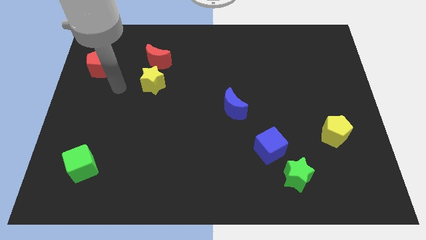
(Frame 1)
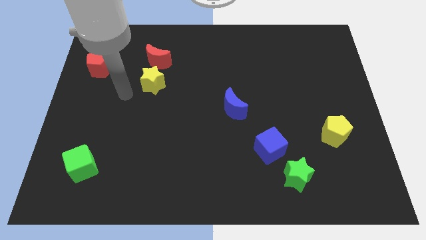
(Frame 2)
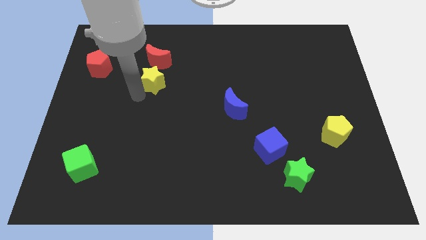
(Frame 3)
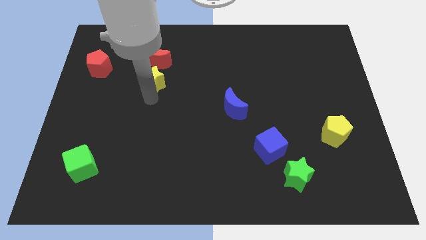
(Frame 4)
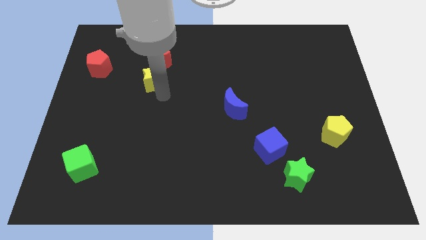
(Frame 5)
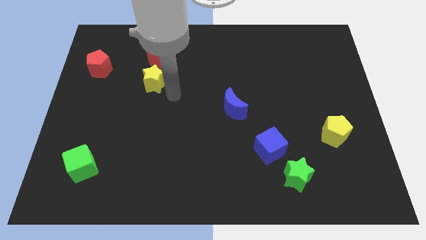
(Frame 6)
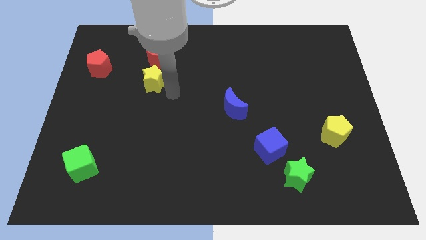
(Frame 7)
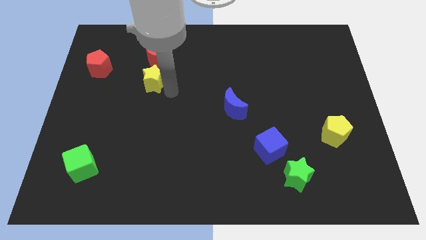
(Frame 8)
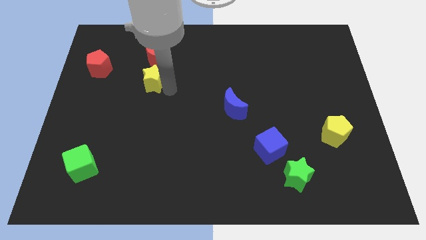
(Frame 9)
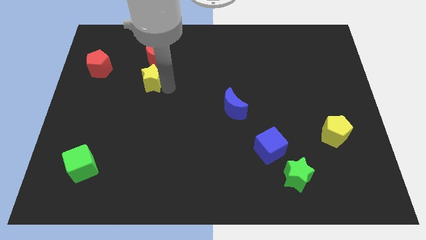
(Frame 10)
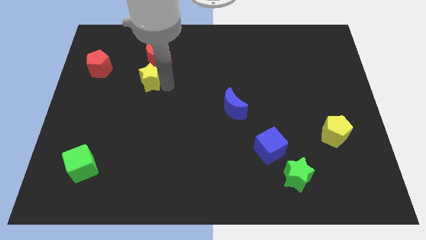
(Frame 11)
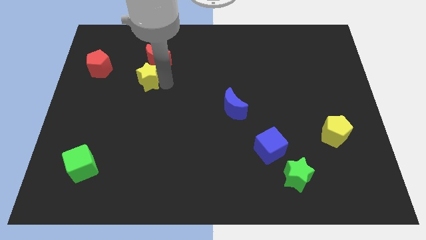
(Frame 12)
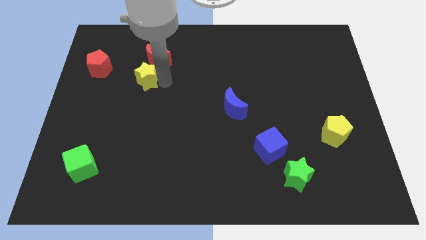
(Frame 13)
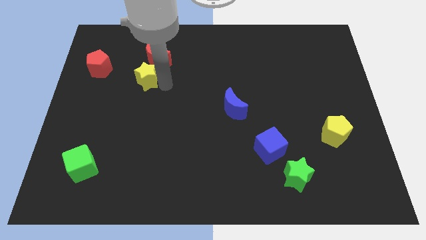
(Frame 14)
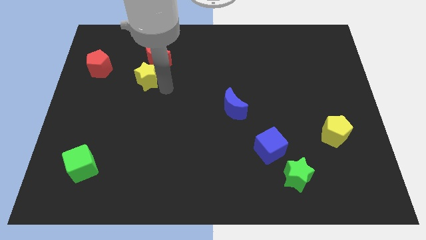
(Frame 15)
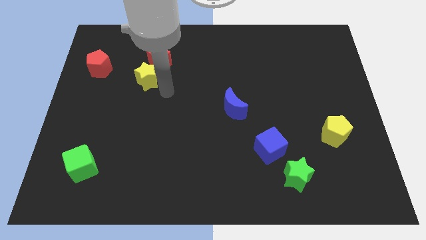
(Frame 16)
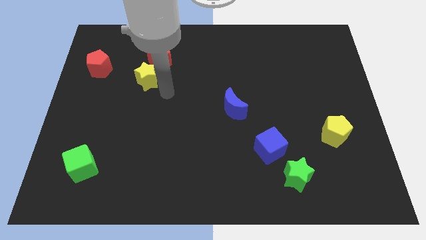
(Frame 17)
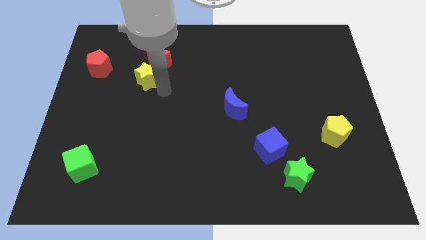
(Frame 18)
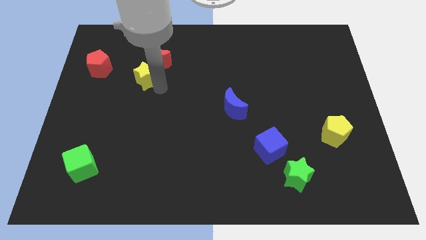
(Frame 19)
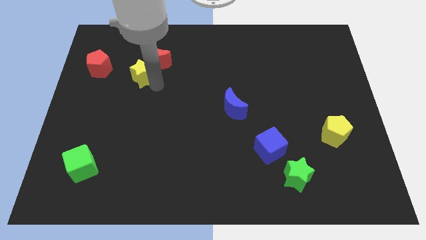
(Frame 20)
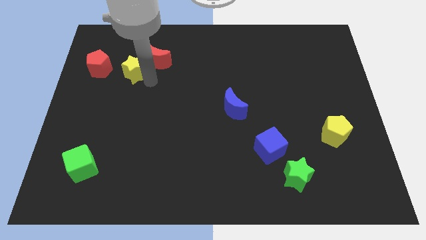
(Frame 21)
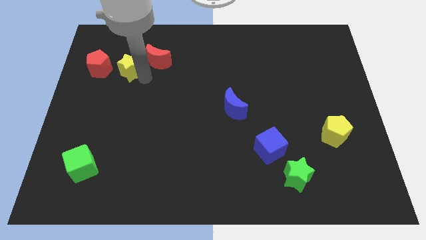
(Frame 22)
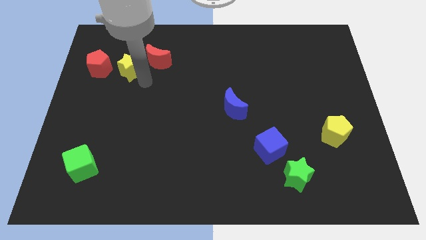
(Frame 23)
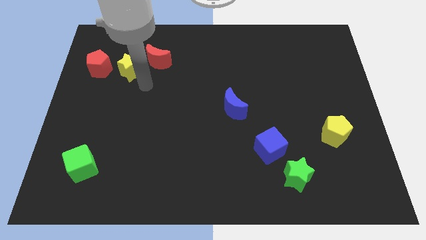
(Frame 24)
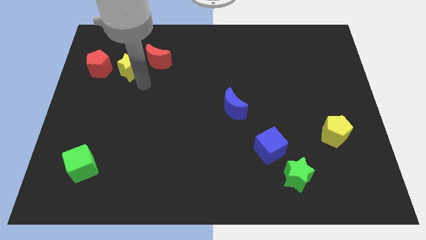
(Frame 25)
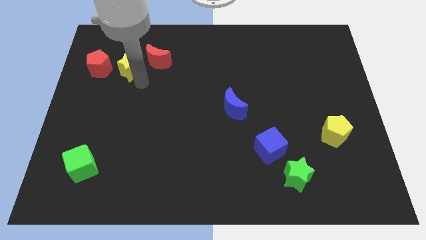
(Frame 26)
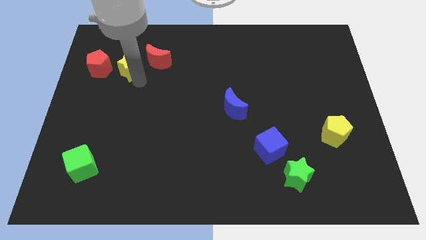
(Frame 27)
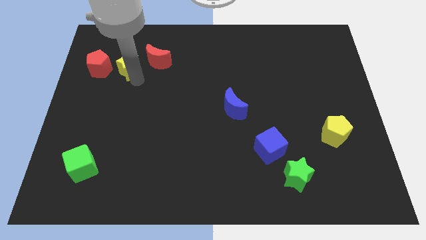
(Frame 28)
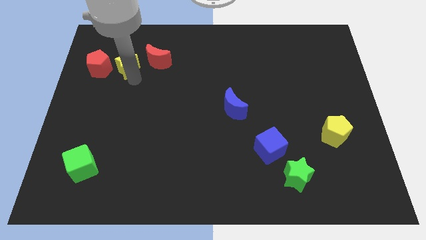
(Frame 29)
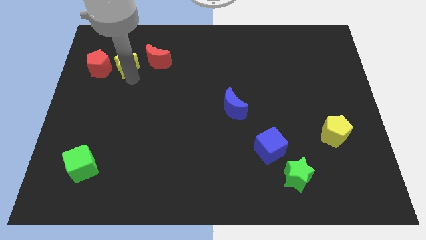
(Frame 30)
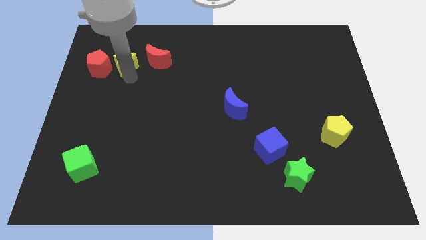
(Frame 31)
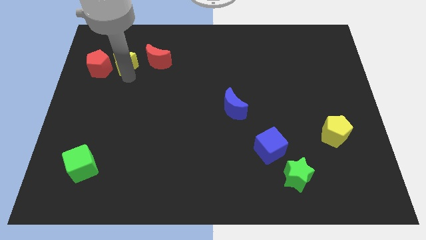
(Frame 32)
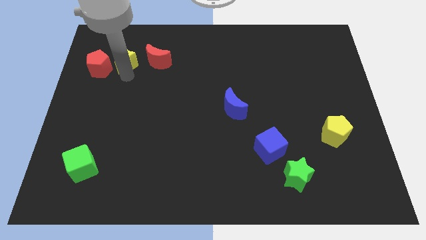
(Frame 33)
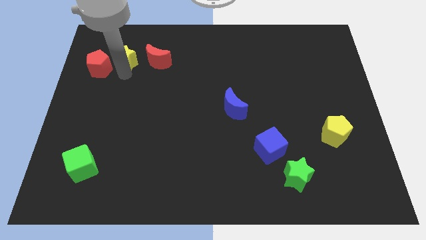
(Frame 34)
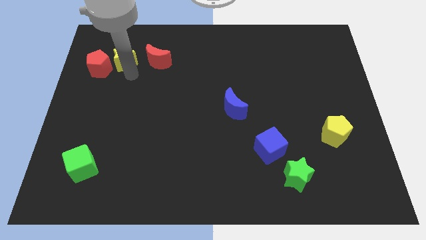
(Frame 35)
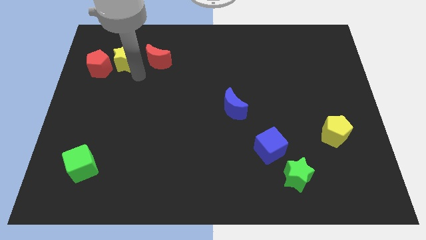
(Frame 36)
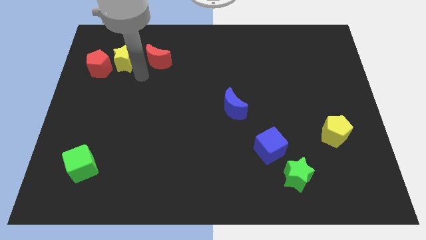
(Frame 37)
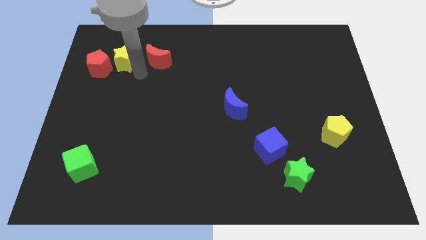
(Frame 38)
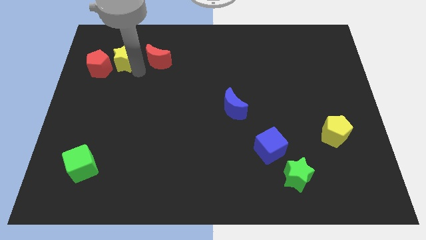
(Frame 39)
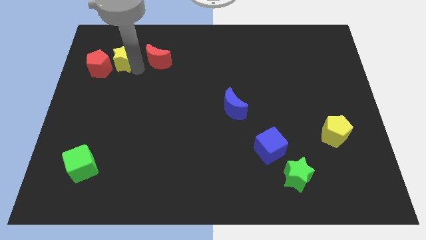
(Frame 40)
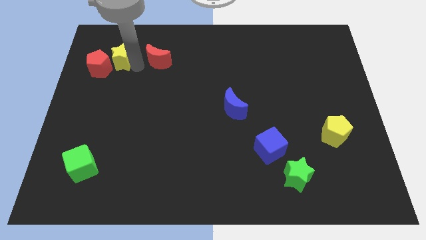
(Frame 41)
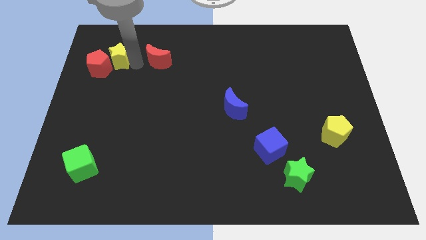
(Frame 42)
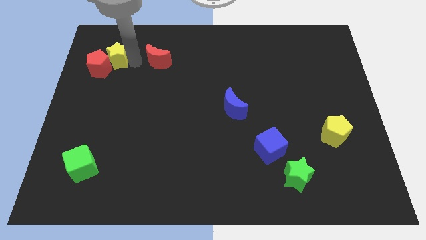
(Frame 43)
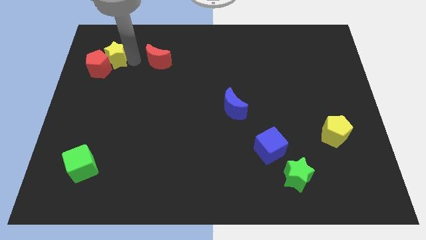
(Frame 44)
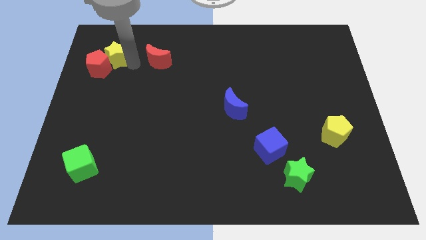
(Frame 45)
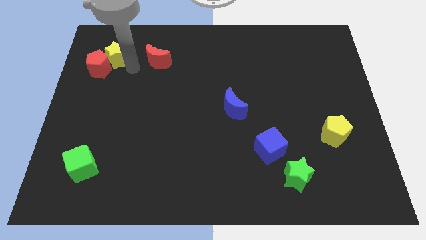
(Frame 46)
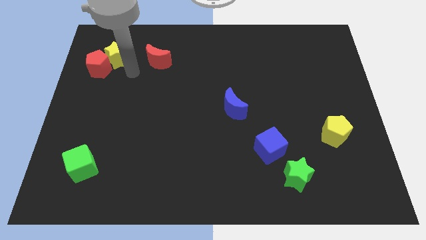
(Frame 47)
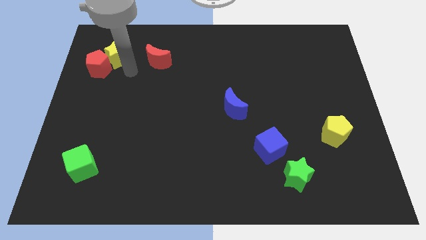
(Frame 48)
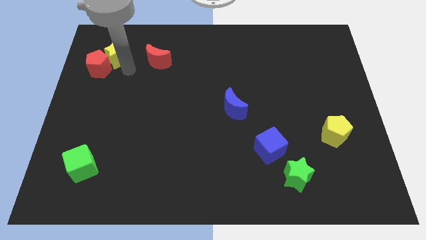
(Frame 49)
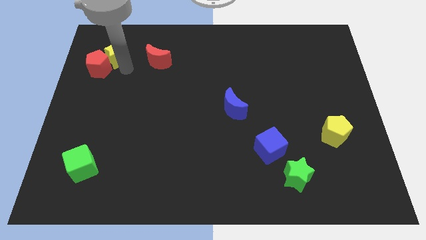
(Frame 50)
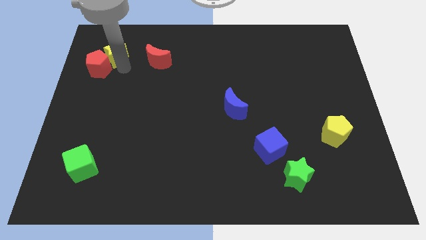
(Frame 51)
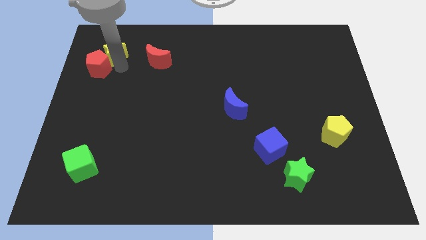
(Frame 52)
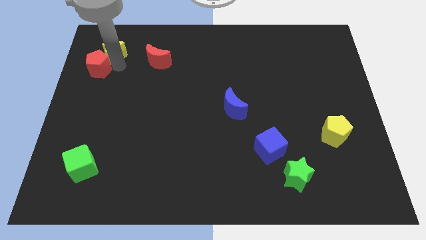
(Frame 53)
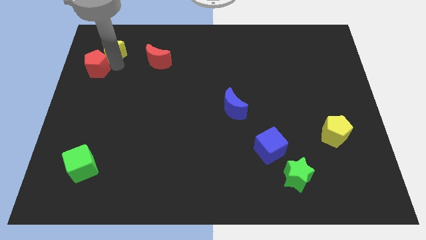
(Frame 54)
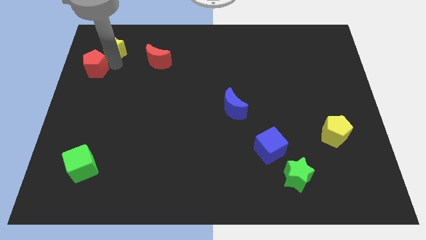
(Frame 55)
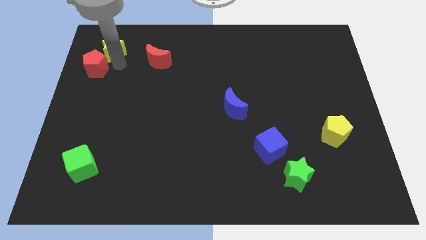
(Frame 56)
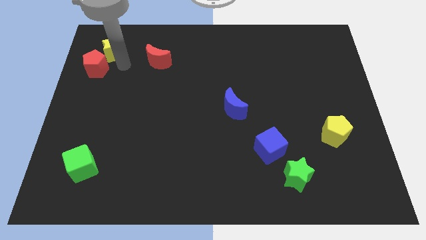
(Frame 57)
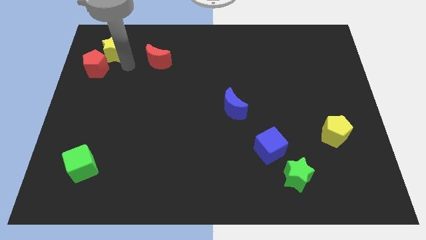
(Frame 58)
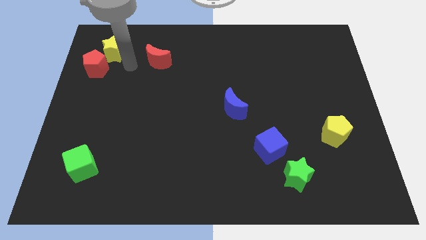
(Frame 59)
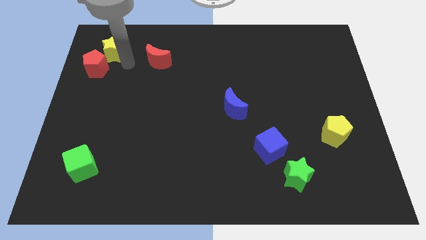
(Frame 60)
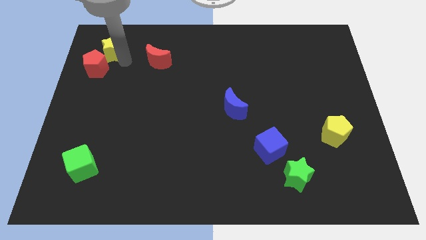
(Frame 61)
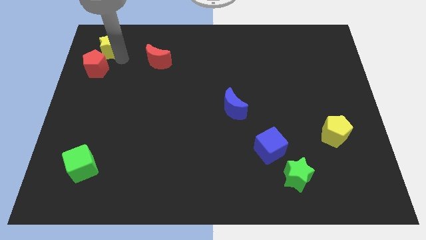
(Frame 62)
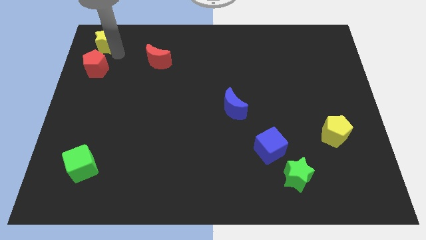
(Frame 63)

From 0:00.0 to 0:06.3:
push the yellow star to the upper left corner

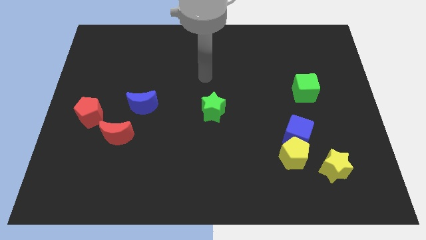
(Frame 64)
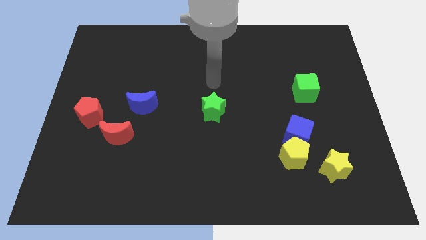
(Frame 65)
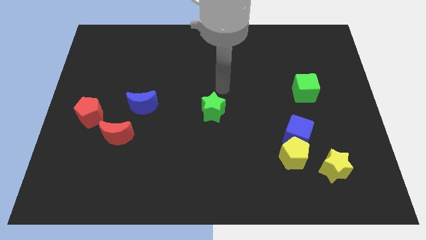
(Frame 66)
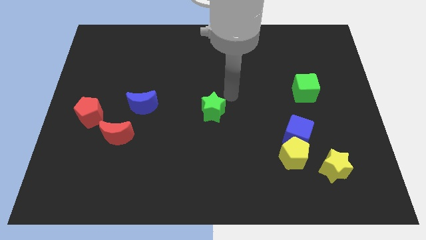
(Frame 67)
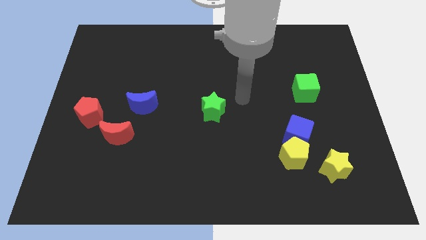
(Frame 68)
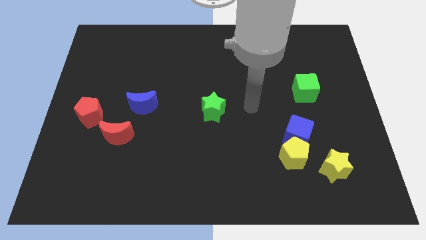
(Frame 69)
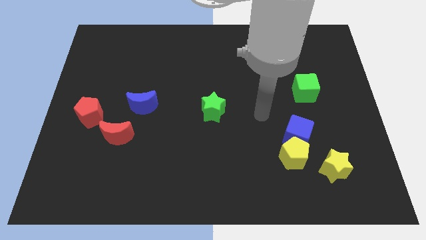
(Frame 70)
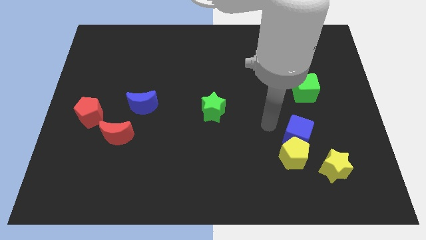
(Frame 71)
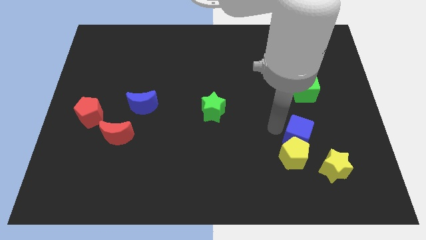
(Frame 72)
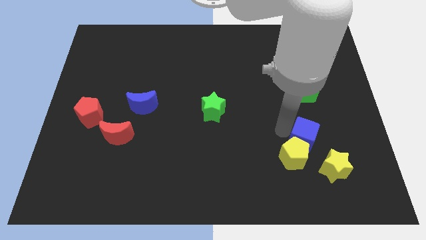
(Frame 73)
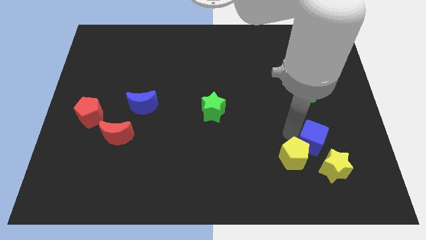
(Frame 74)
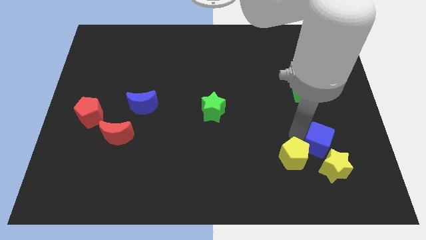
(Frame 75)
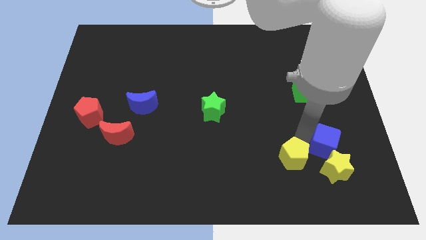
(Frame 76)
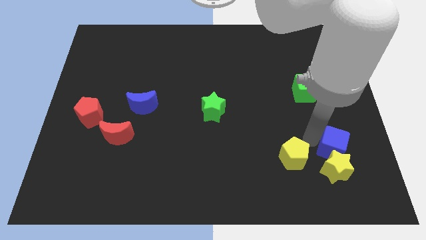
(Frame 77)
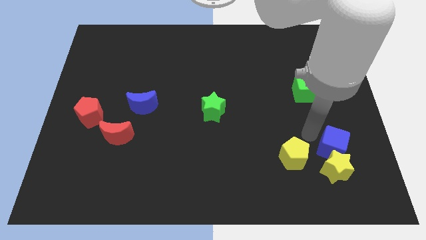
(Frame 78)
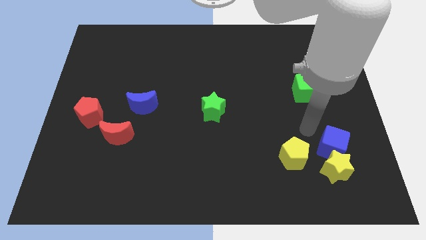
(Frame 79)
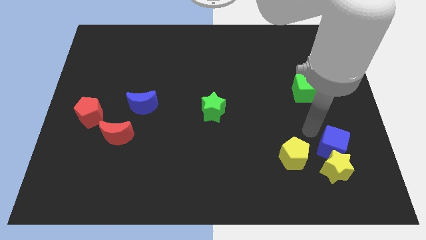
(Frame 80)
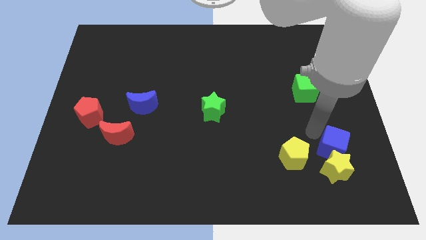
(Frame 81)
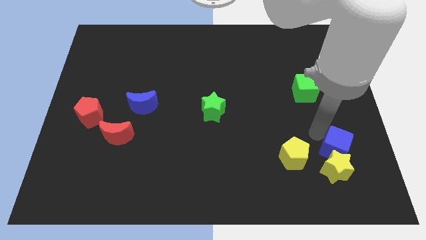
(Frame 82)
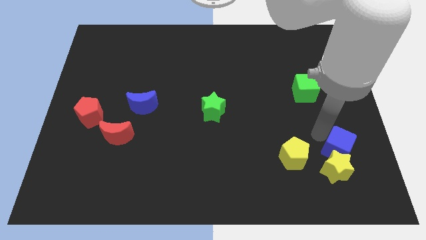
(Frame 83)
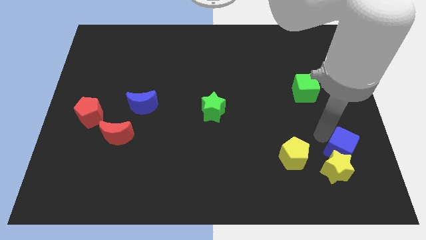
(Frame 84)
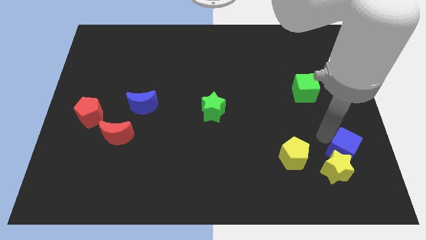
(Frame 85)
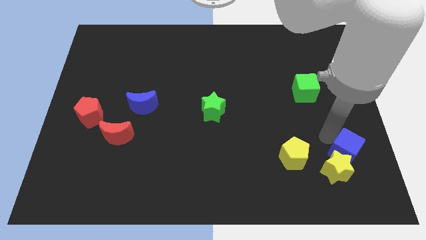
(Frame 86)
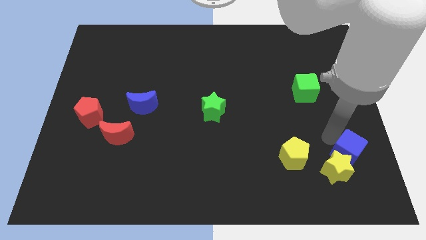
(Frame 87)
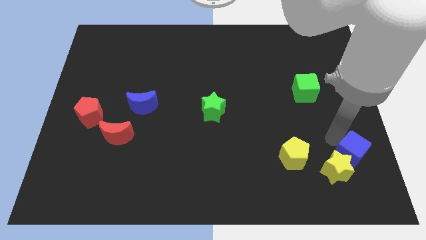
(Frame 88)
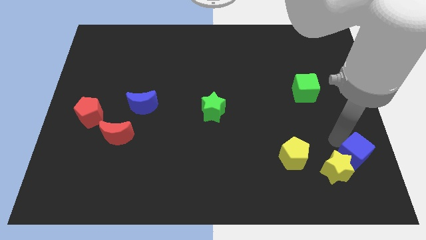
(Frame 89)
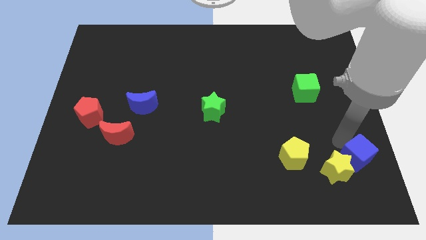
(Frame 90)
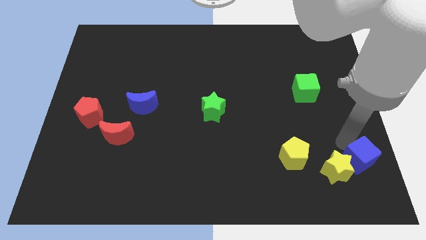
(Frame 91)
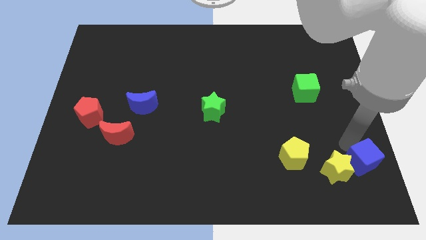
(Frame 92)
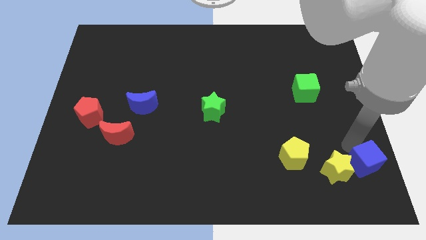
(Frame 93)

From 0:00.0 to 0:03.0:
move the blue cube to the bottom right
